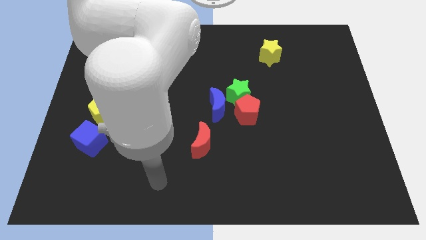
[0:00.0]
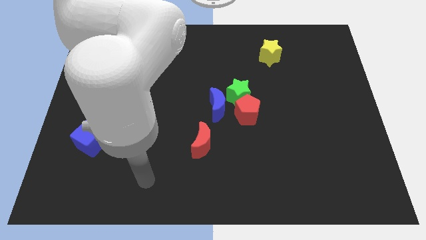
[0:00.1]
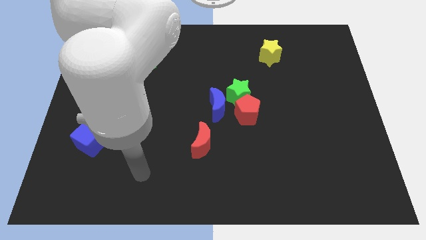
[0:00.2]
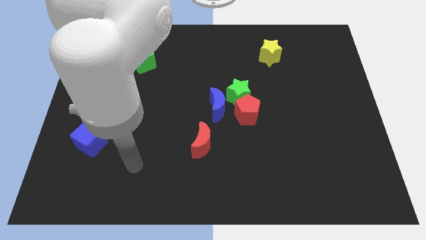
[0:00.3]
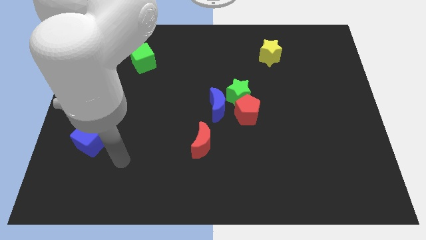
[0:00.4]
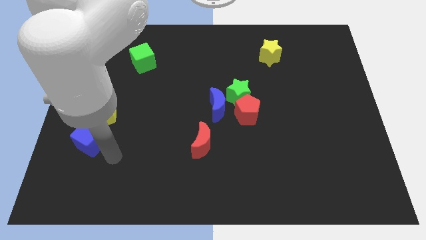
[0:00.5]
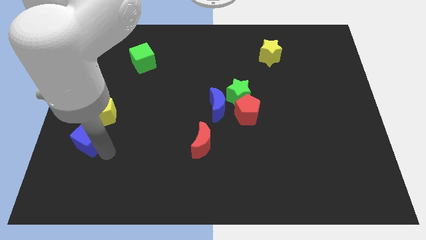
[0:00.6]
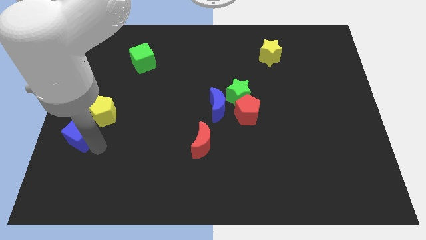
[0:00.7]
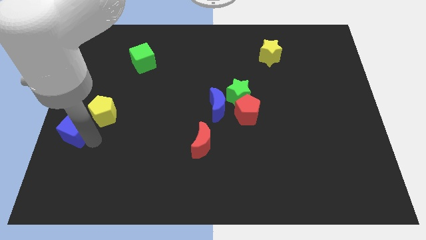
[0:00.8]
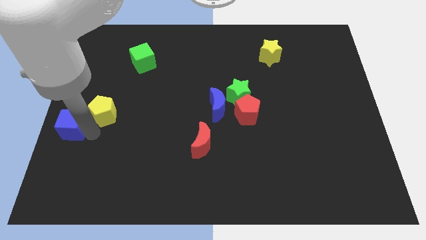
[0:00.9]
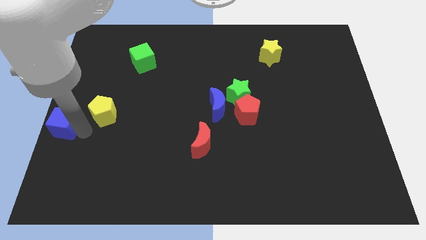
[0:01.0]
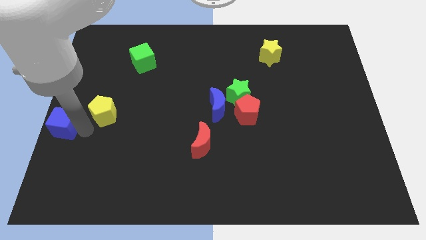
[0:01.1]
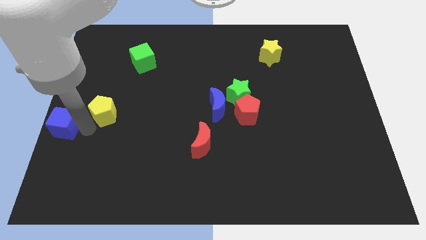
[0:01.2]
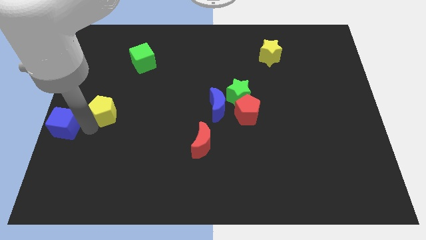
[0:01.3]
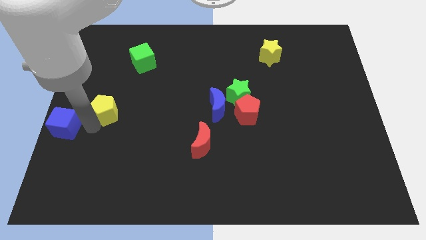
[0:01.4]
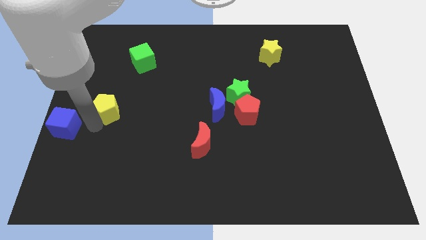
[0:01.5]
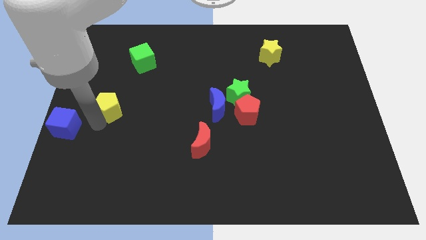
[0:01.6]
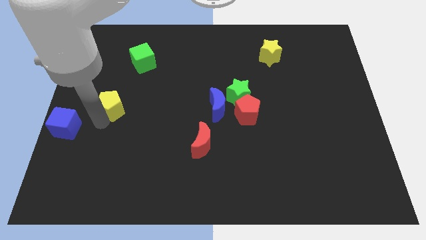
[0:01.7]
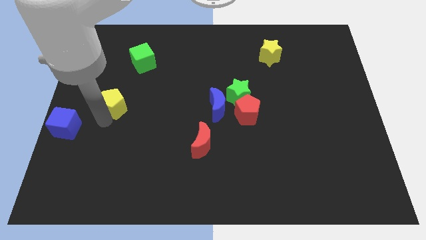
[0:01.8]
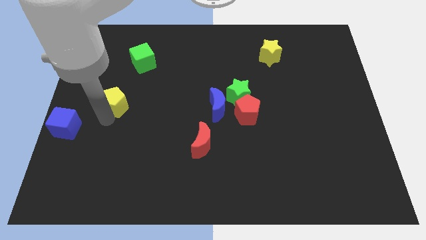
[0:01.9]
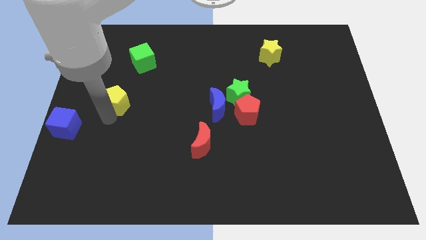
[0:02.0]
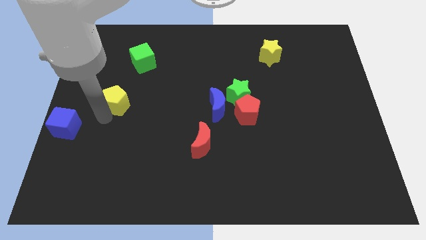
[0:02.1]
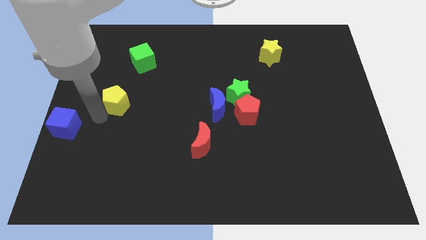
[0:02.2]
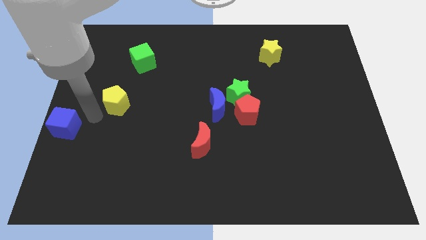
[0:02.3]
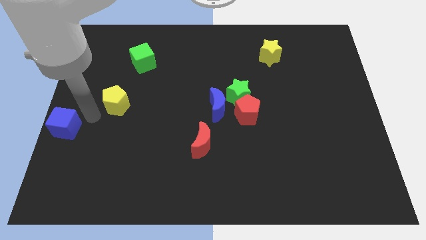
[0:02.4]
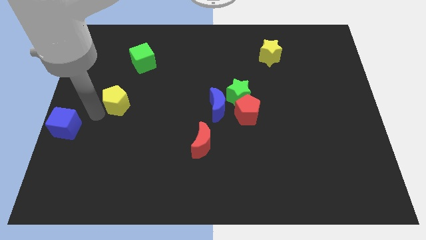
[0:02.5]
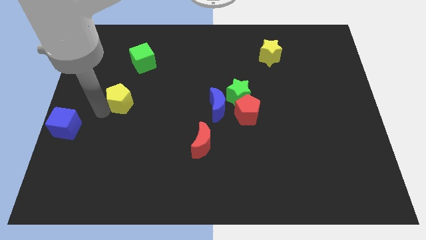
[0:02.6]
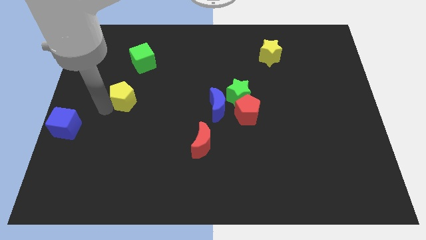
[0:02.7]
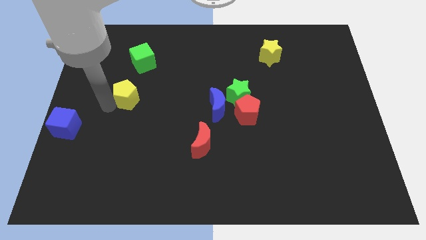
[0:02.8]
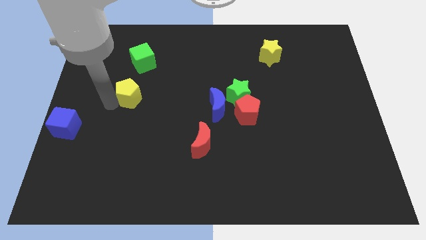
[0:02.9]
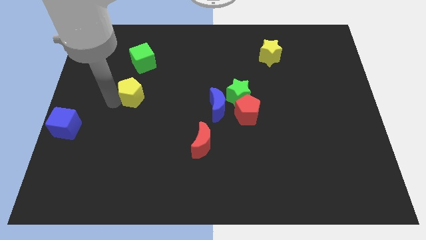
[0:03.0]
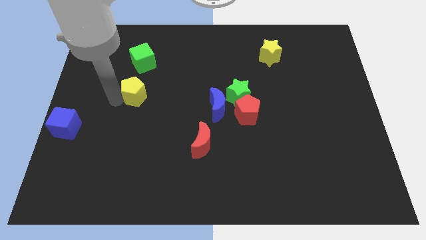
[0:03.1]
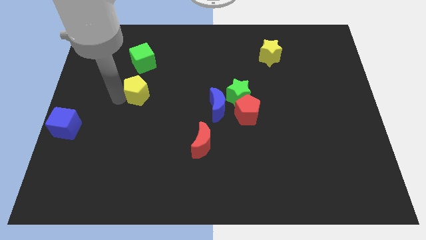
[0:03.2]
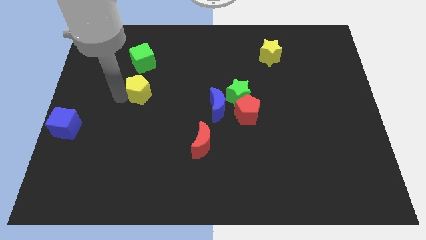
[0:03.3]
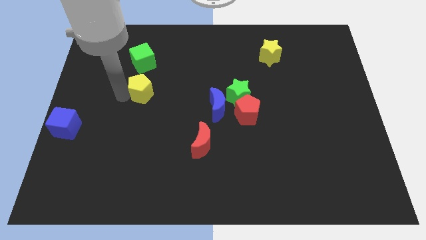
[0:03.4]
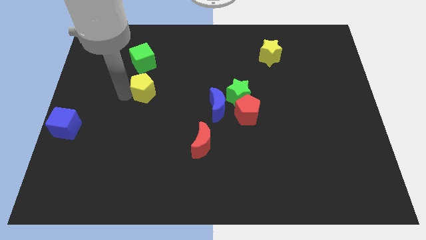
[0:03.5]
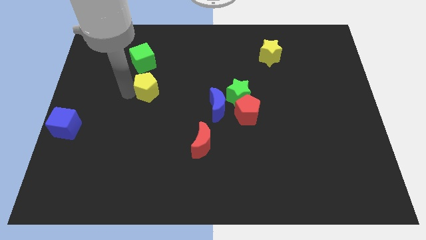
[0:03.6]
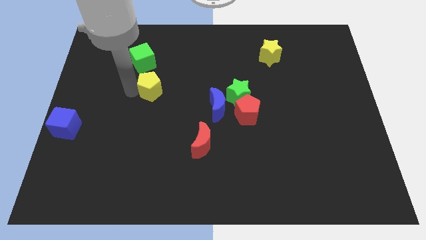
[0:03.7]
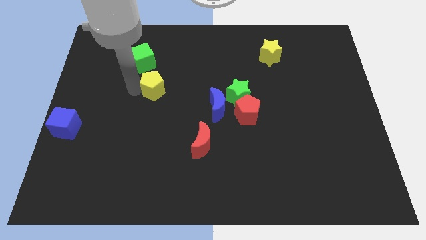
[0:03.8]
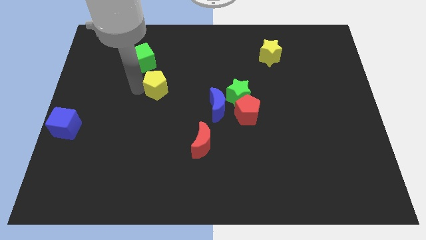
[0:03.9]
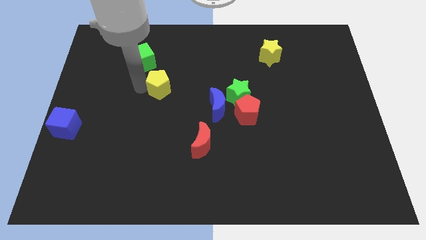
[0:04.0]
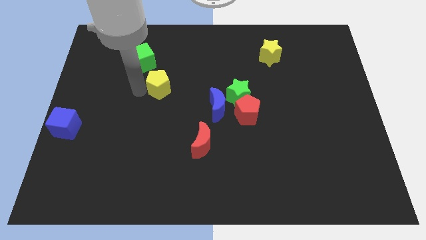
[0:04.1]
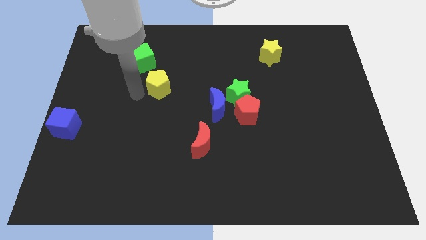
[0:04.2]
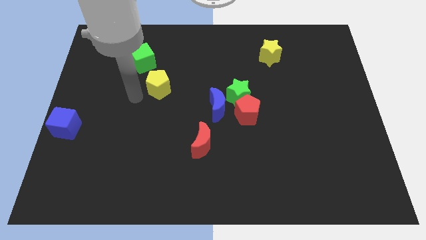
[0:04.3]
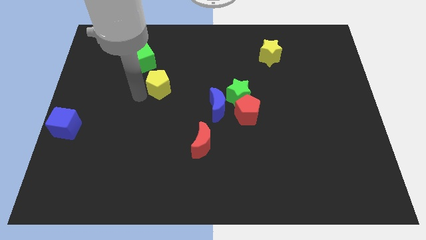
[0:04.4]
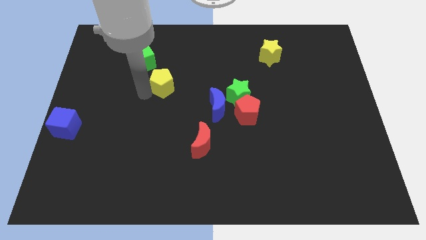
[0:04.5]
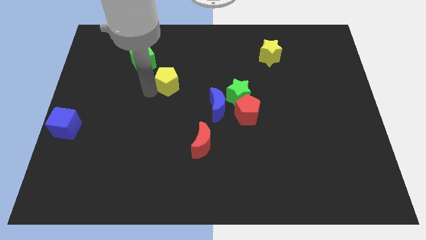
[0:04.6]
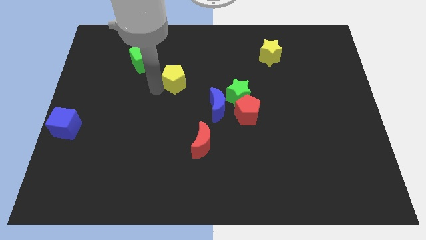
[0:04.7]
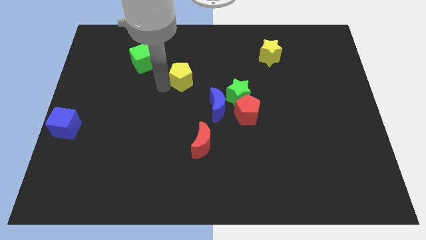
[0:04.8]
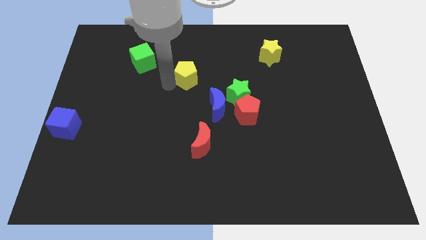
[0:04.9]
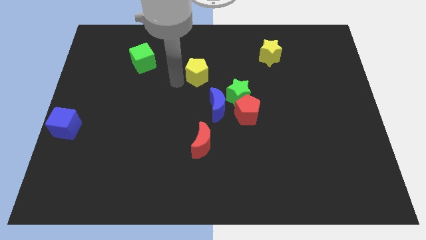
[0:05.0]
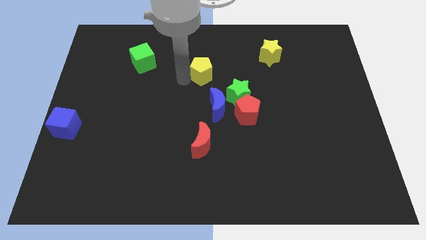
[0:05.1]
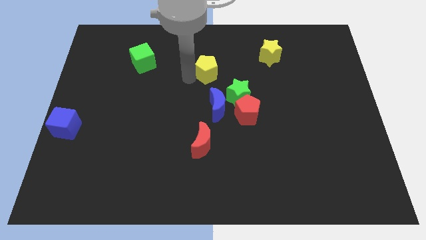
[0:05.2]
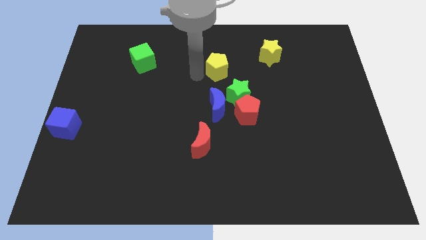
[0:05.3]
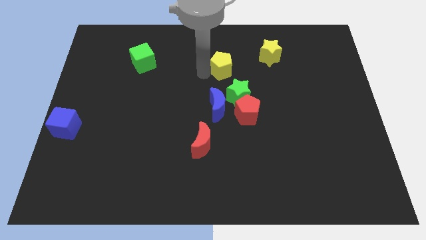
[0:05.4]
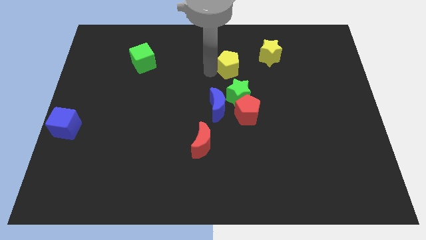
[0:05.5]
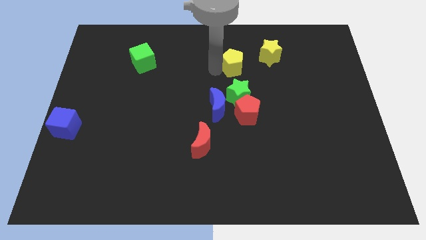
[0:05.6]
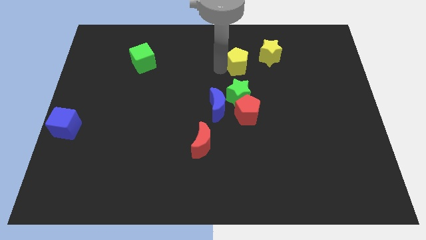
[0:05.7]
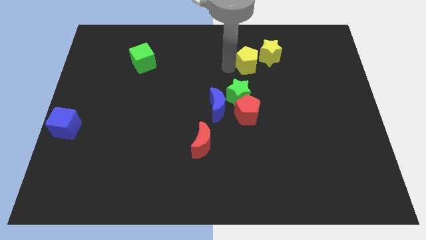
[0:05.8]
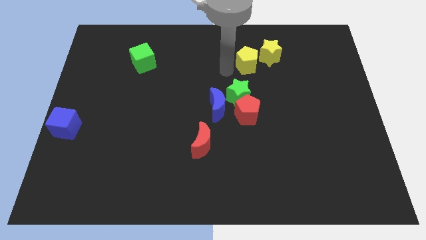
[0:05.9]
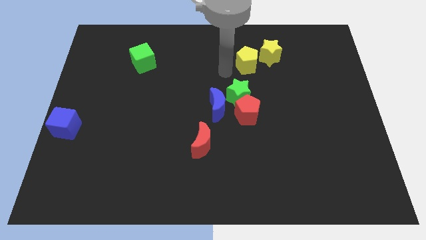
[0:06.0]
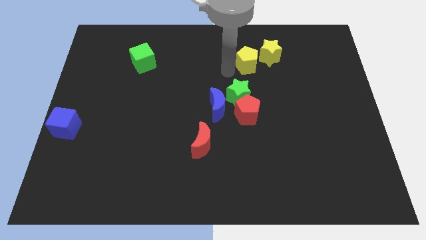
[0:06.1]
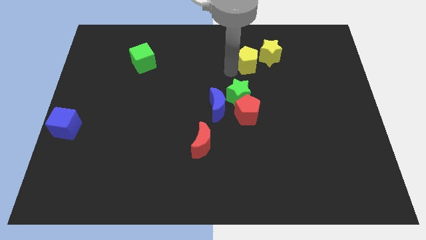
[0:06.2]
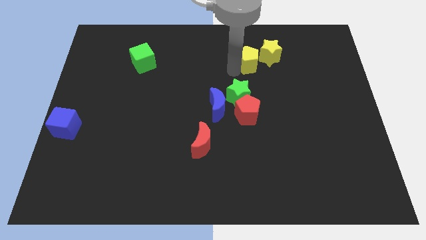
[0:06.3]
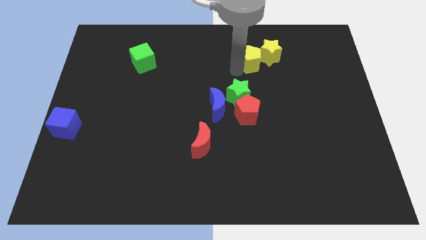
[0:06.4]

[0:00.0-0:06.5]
push the yellow pentagon next to the yellow star

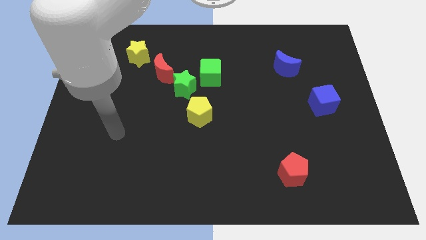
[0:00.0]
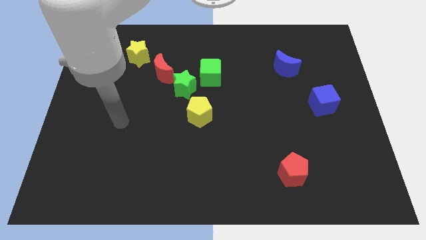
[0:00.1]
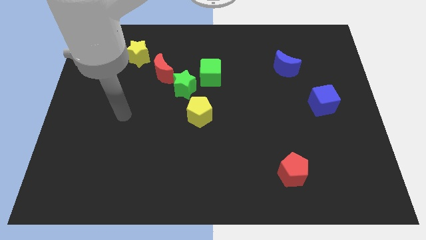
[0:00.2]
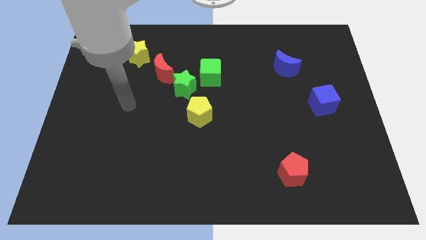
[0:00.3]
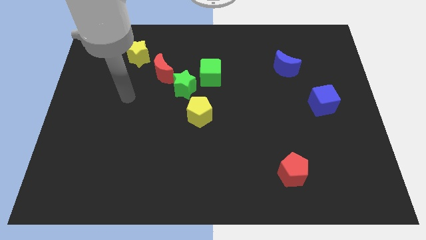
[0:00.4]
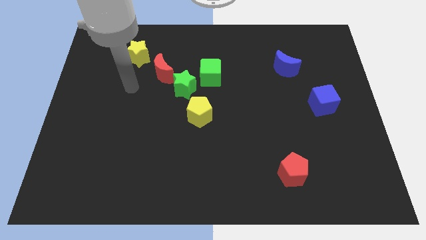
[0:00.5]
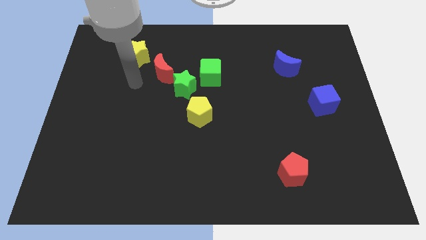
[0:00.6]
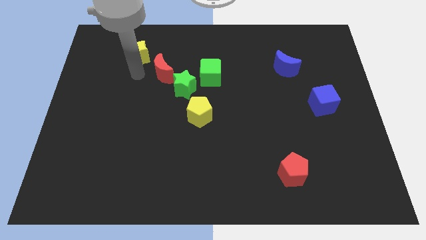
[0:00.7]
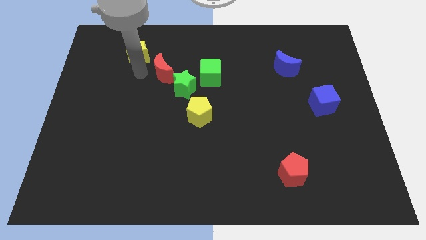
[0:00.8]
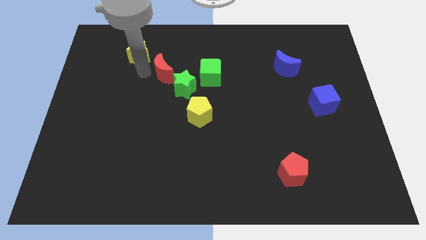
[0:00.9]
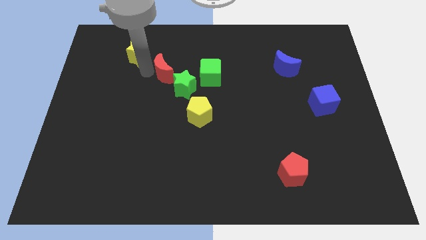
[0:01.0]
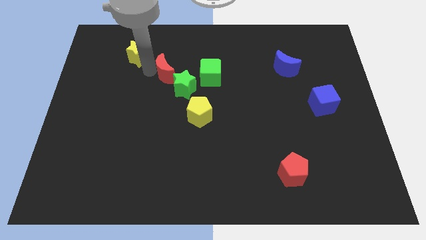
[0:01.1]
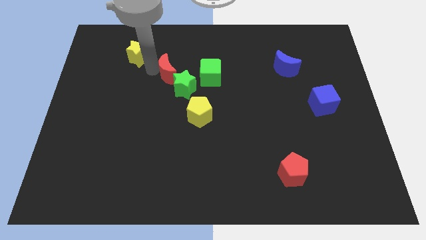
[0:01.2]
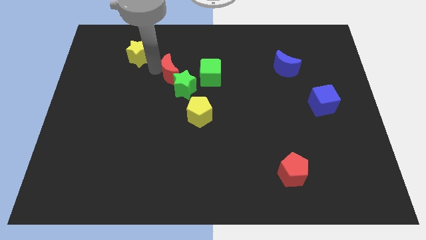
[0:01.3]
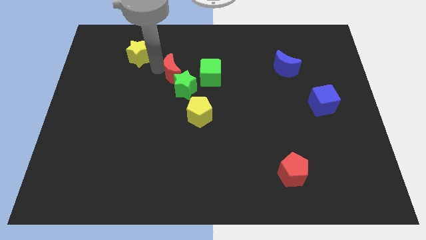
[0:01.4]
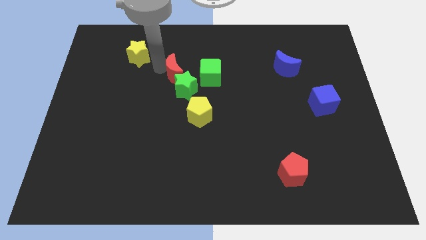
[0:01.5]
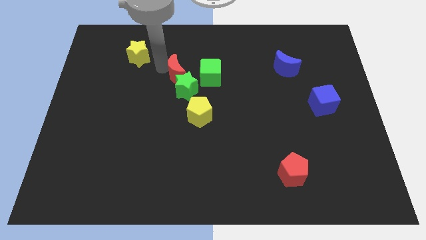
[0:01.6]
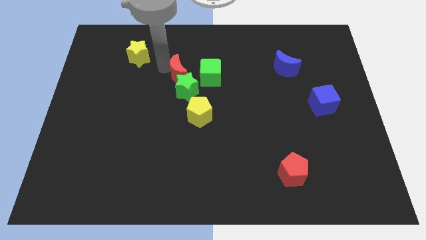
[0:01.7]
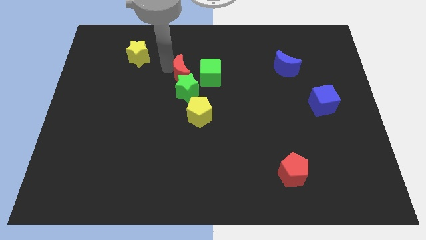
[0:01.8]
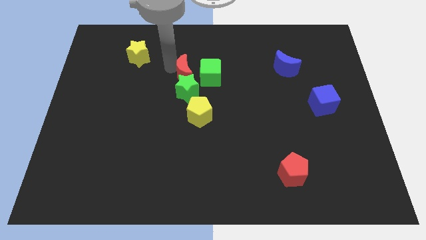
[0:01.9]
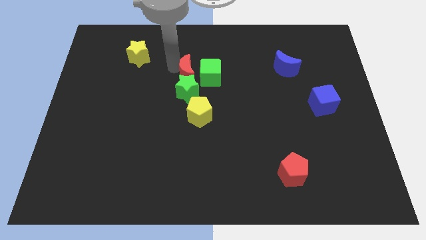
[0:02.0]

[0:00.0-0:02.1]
put the red moon to the green cube
